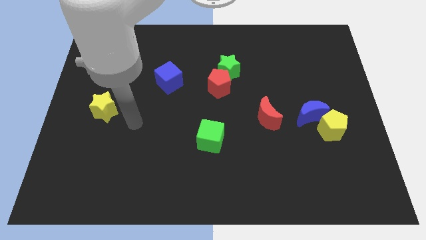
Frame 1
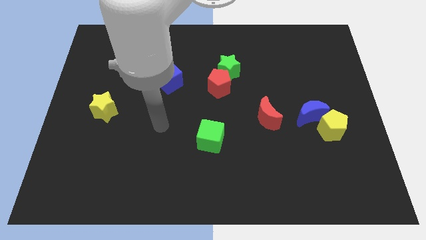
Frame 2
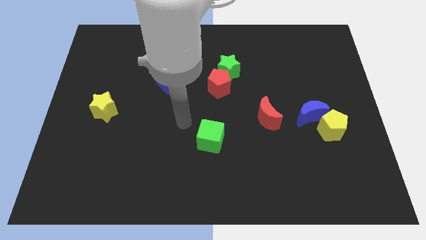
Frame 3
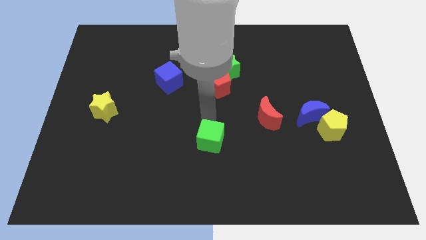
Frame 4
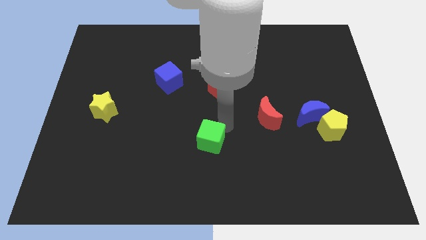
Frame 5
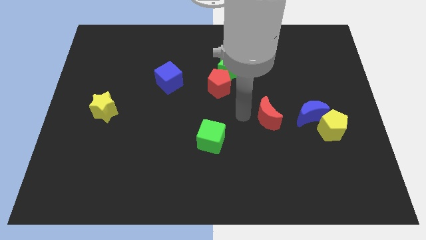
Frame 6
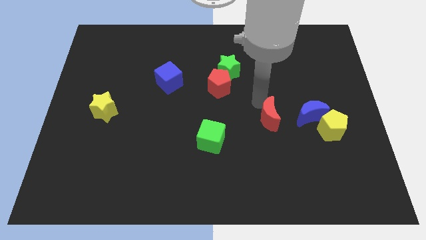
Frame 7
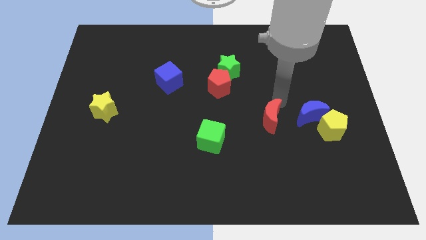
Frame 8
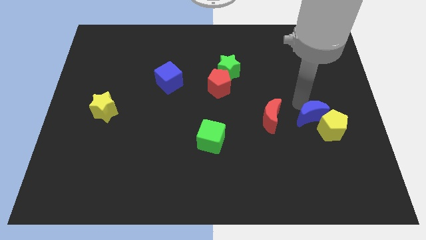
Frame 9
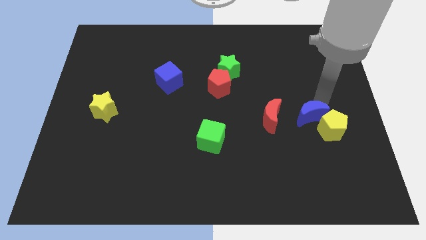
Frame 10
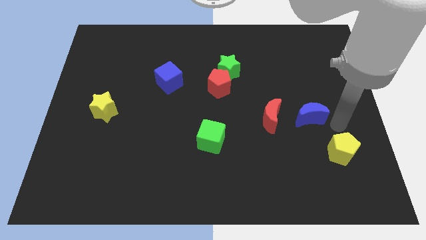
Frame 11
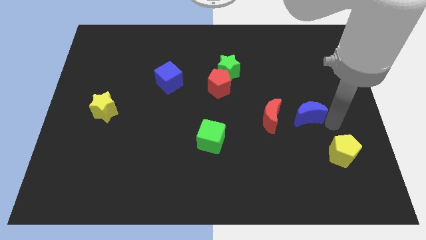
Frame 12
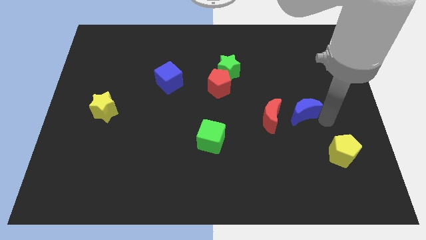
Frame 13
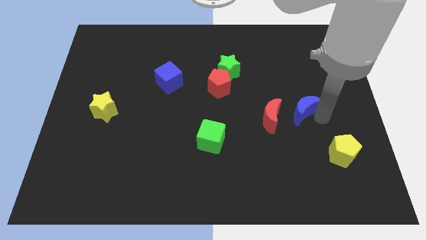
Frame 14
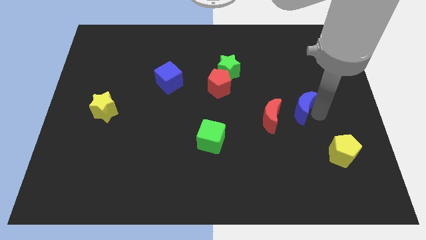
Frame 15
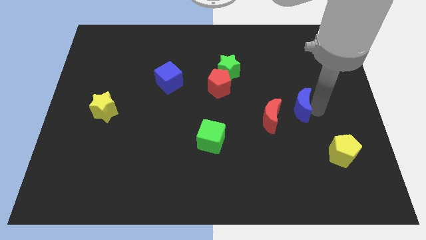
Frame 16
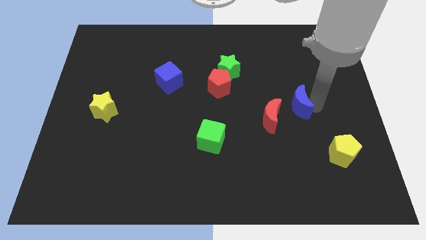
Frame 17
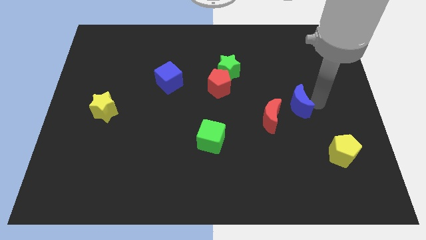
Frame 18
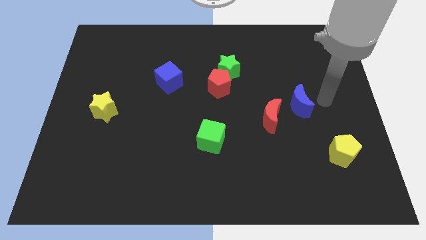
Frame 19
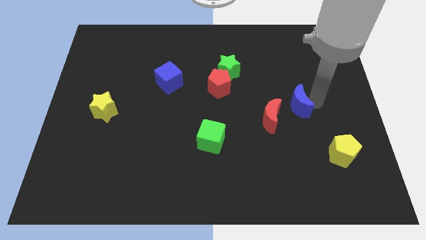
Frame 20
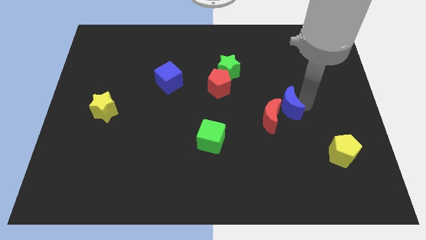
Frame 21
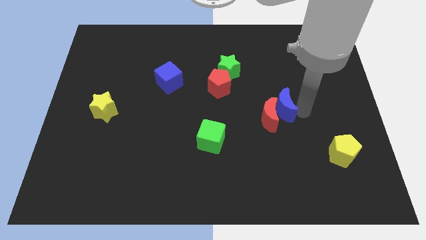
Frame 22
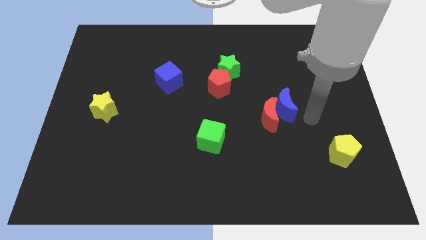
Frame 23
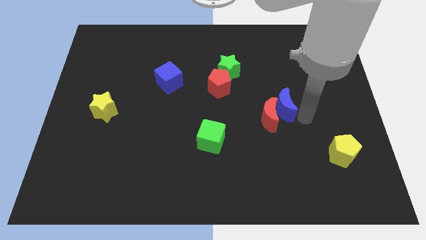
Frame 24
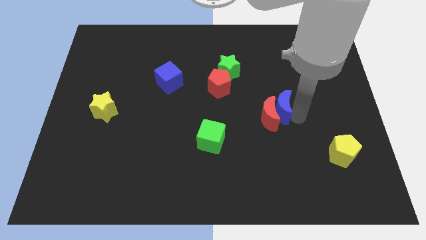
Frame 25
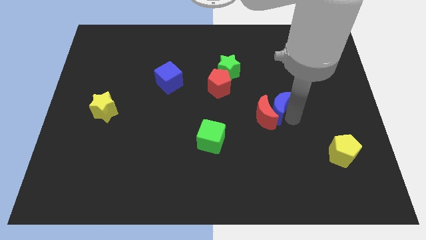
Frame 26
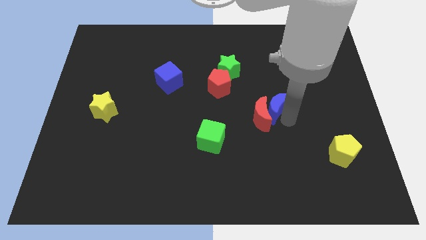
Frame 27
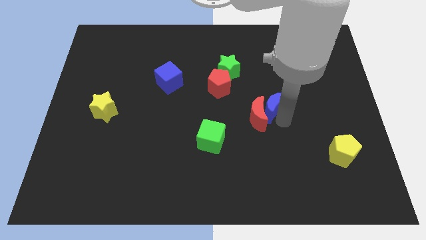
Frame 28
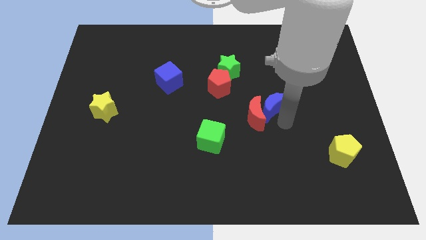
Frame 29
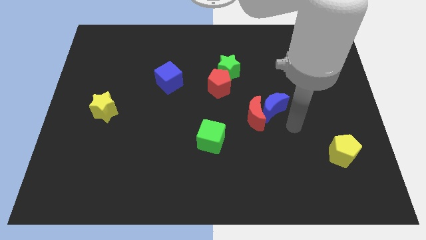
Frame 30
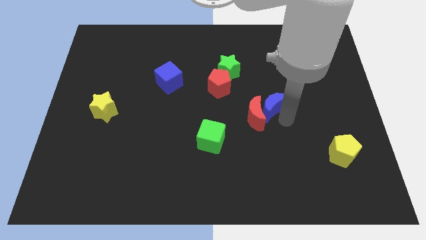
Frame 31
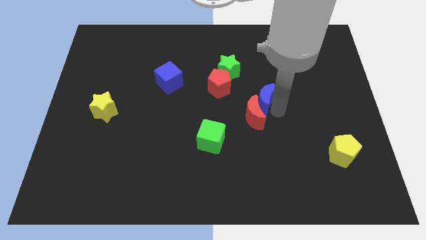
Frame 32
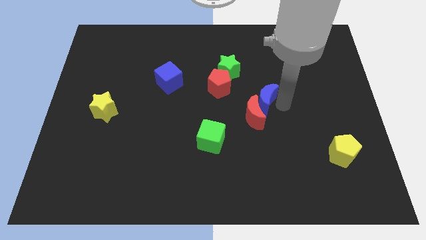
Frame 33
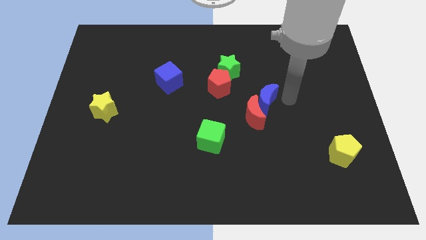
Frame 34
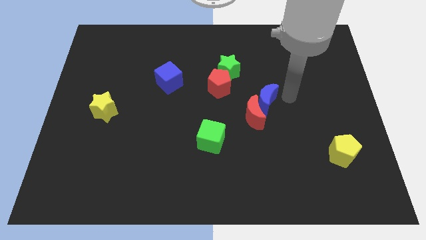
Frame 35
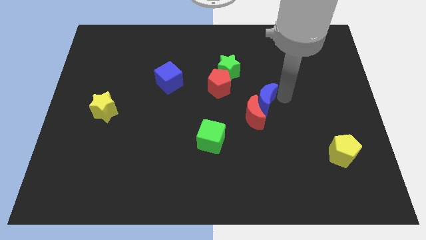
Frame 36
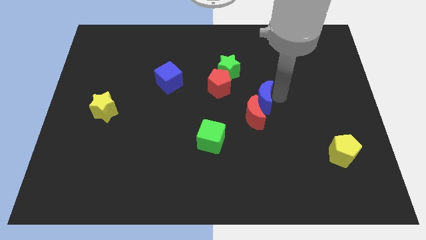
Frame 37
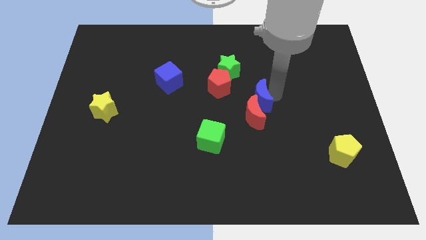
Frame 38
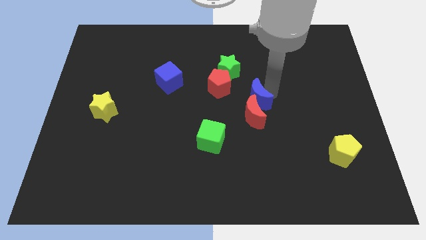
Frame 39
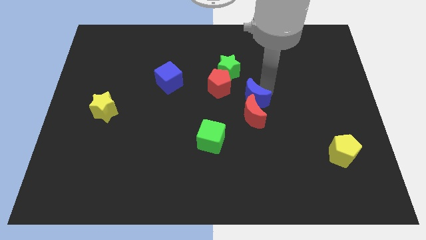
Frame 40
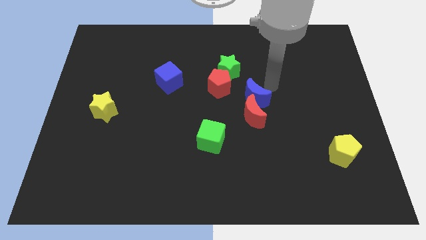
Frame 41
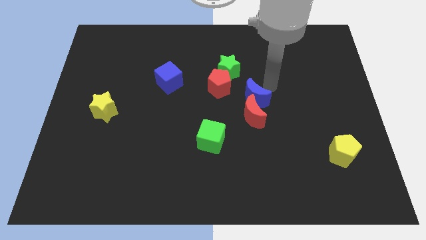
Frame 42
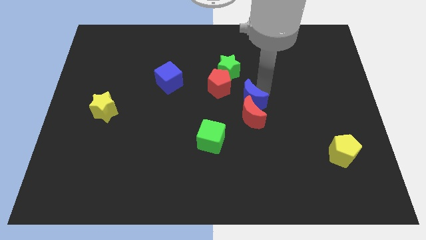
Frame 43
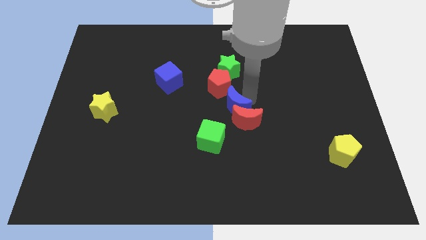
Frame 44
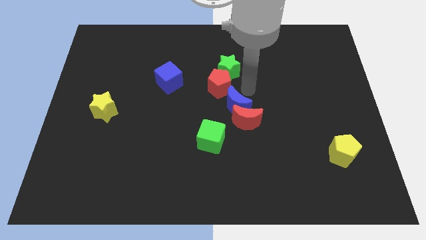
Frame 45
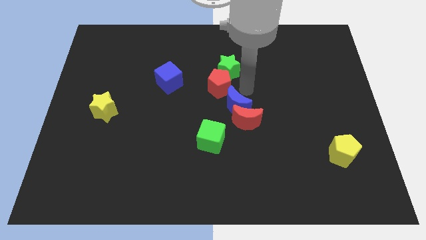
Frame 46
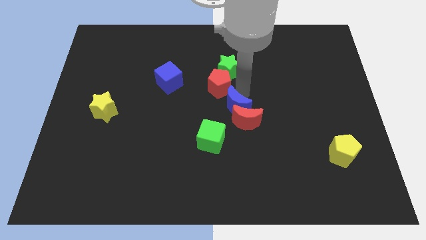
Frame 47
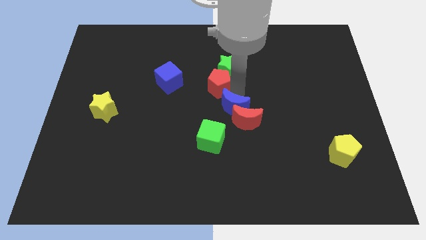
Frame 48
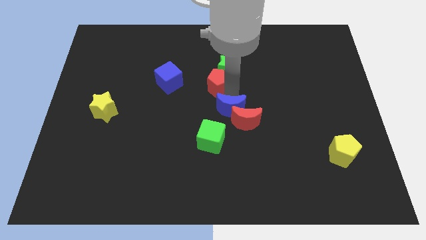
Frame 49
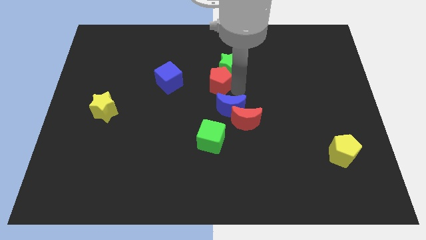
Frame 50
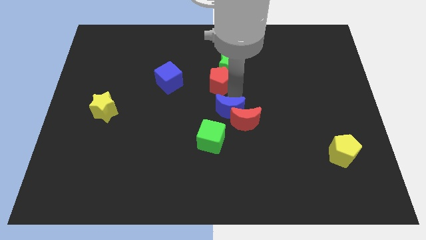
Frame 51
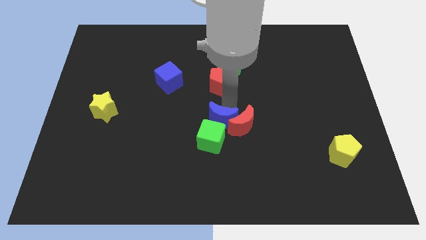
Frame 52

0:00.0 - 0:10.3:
put the blue moon to the green cube

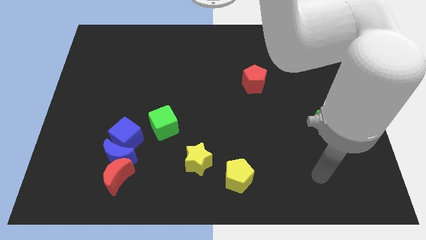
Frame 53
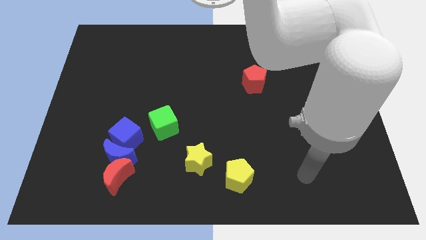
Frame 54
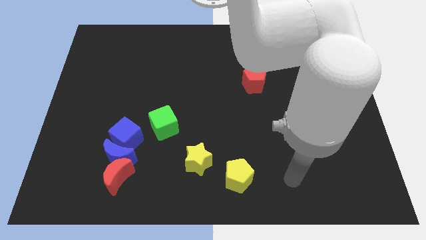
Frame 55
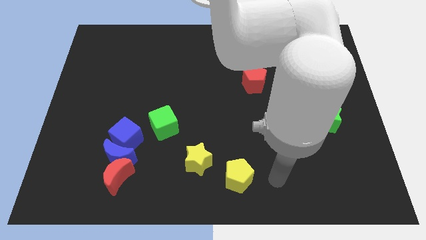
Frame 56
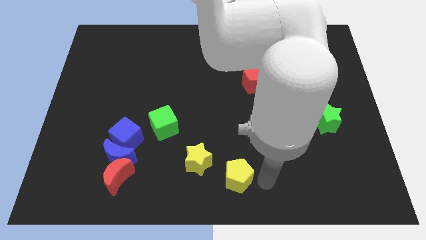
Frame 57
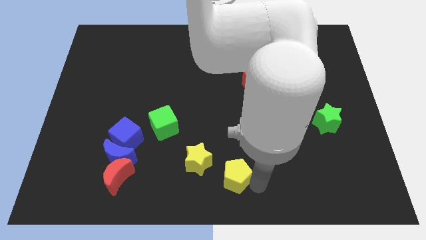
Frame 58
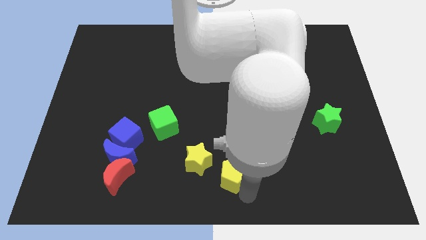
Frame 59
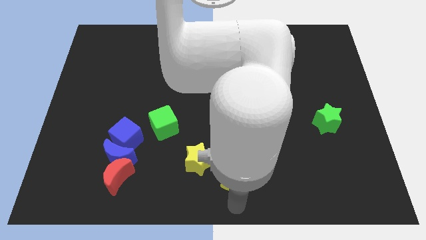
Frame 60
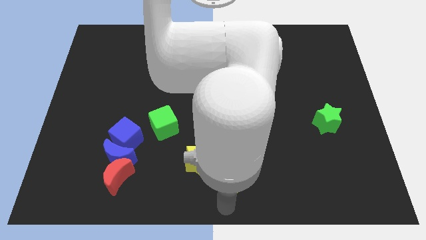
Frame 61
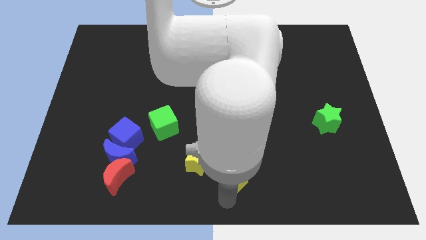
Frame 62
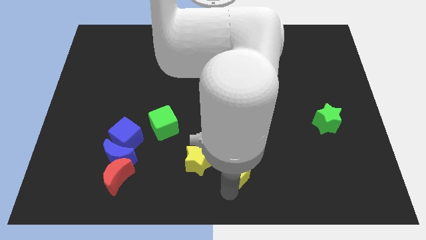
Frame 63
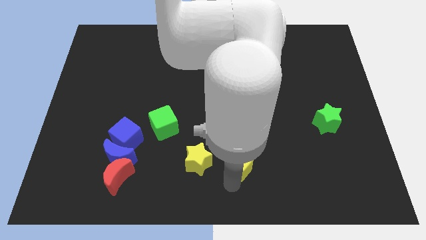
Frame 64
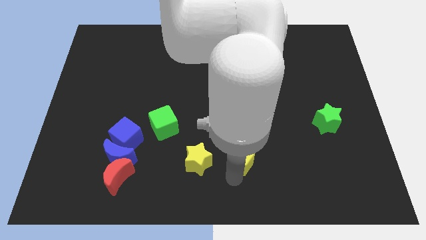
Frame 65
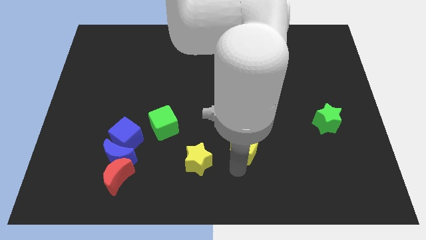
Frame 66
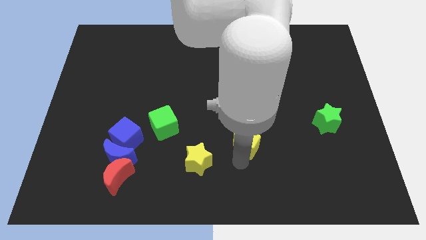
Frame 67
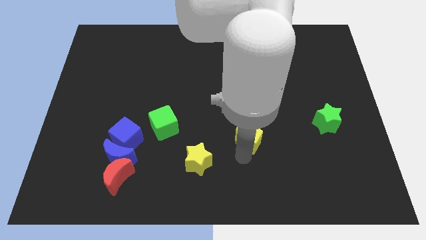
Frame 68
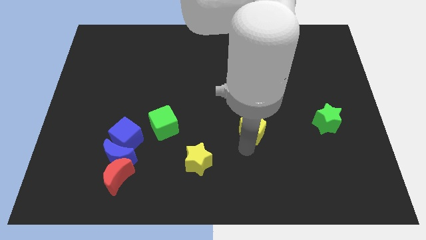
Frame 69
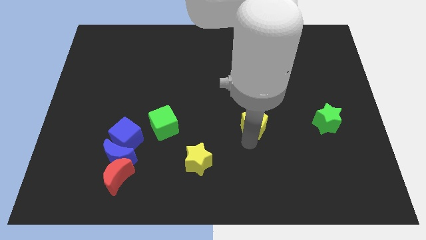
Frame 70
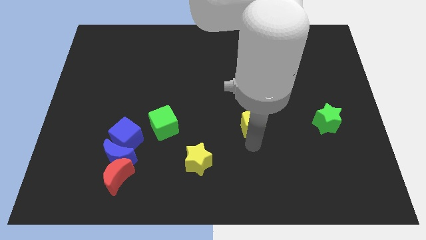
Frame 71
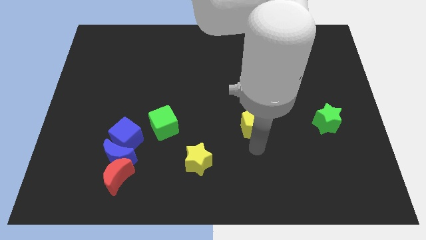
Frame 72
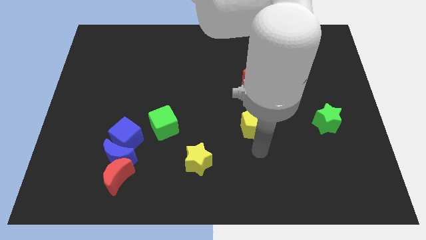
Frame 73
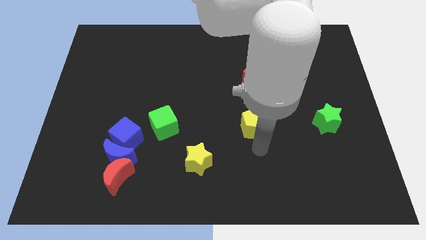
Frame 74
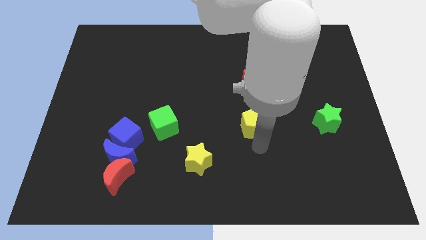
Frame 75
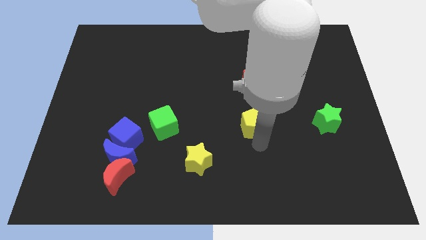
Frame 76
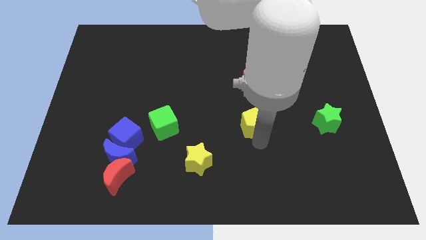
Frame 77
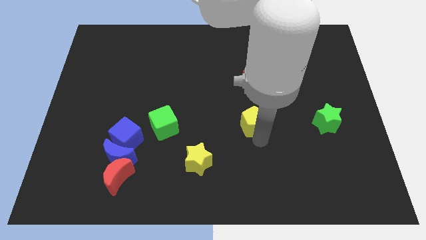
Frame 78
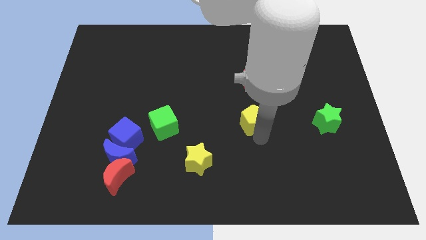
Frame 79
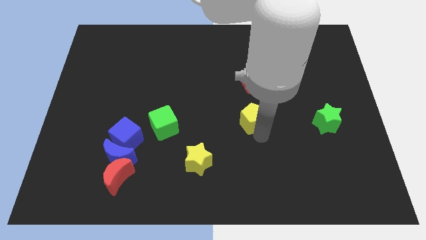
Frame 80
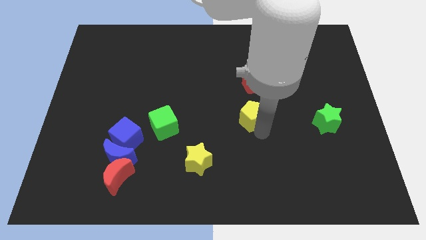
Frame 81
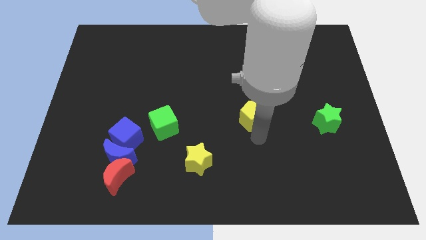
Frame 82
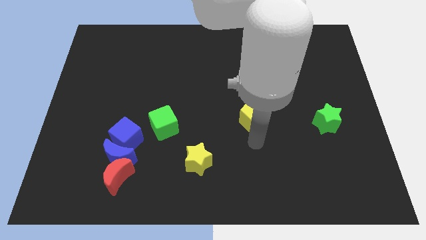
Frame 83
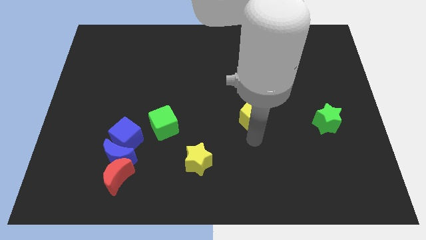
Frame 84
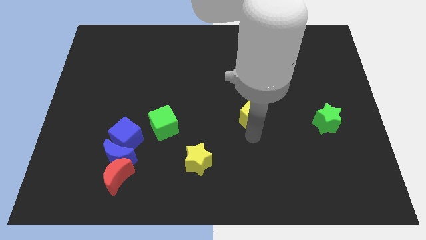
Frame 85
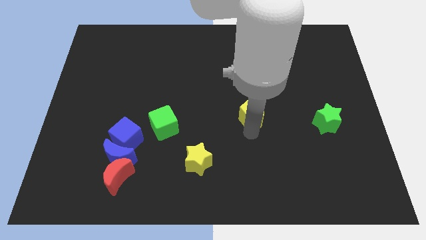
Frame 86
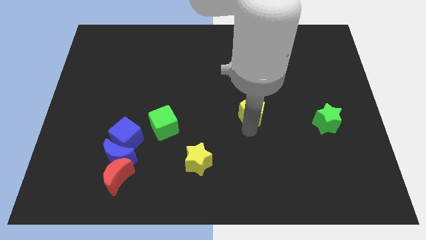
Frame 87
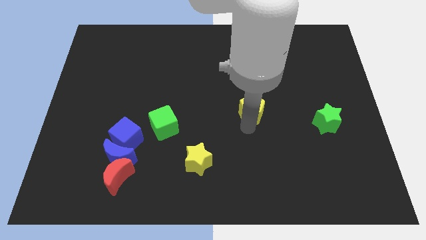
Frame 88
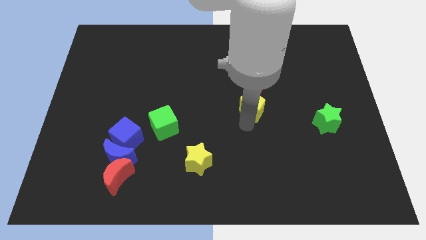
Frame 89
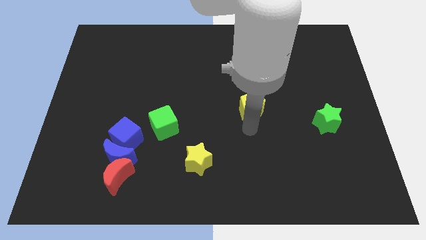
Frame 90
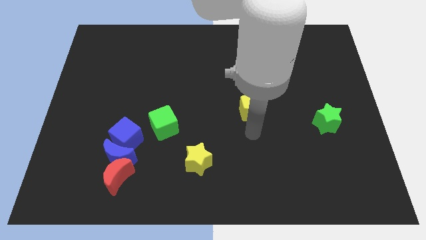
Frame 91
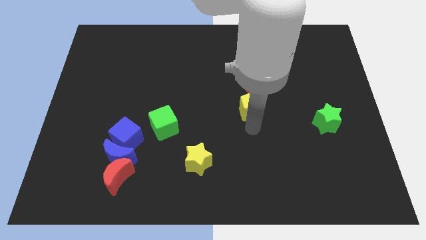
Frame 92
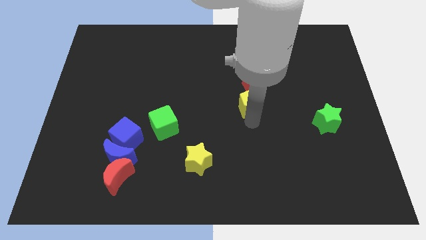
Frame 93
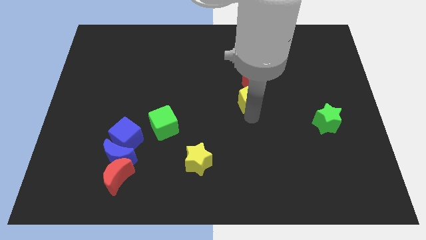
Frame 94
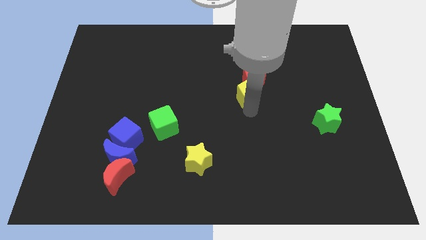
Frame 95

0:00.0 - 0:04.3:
slide the yellow pentagon close to the red pentagon
